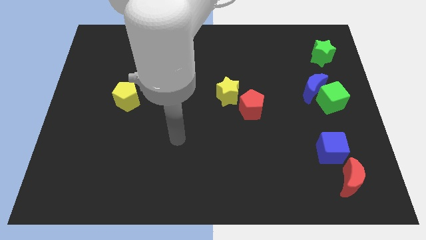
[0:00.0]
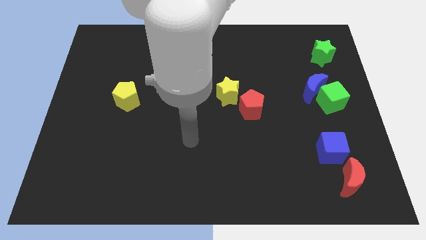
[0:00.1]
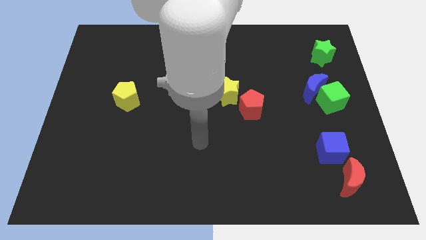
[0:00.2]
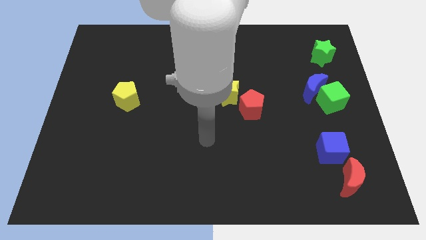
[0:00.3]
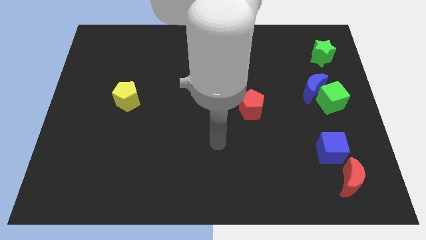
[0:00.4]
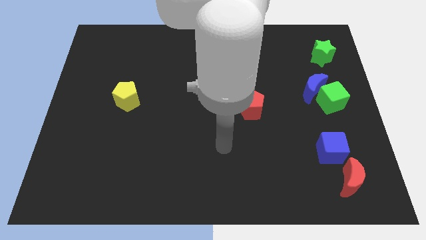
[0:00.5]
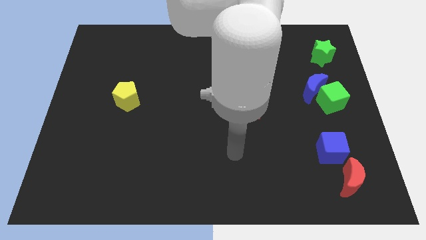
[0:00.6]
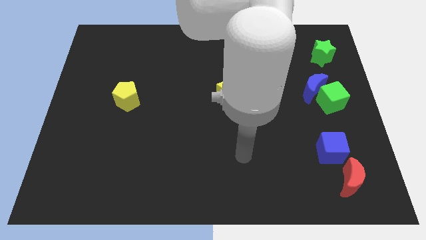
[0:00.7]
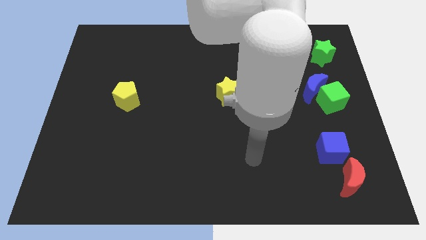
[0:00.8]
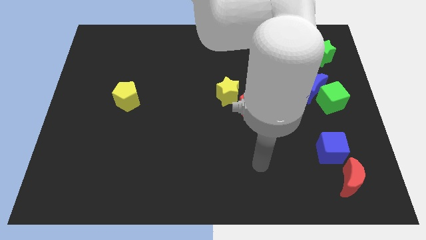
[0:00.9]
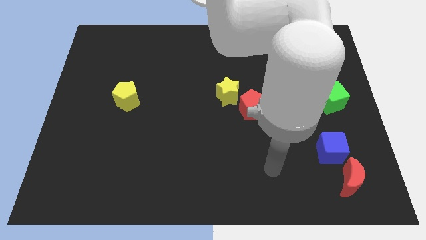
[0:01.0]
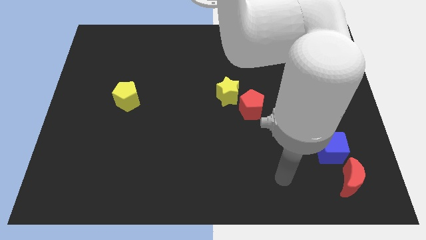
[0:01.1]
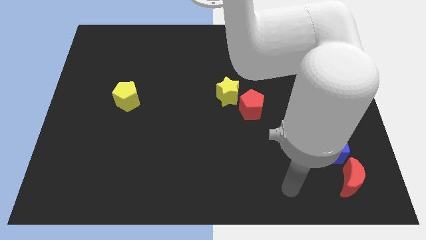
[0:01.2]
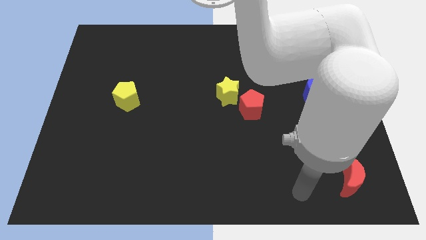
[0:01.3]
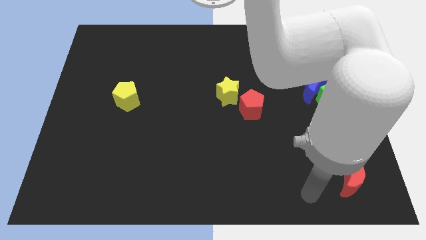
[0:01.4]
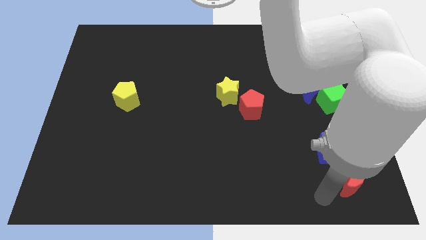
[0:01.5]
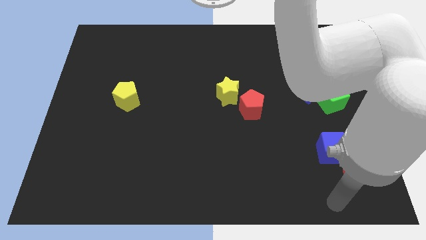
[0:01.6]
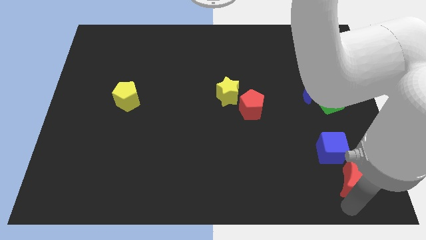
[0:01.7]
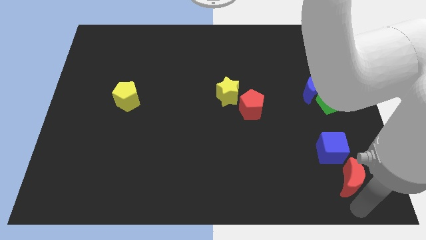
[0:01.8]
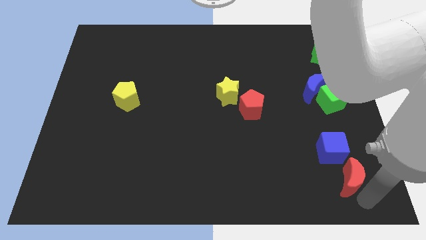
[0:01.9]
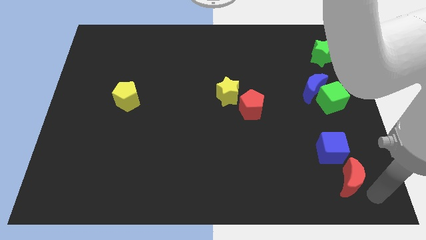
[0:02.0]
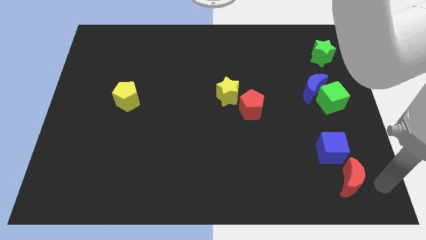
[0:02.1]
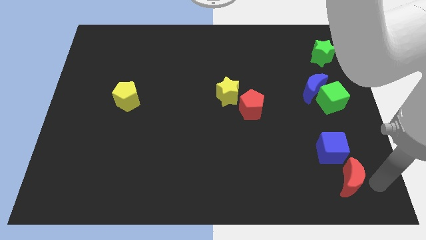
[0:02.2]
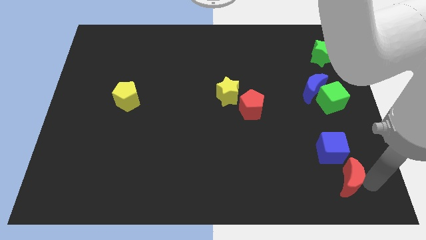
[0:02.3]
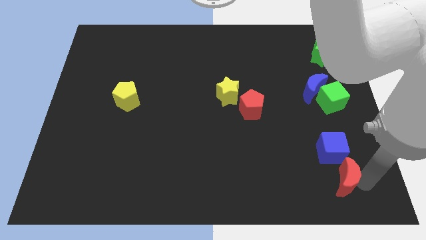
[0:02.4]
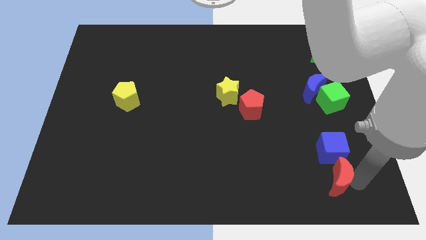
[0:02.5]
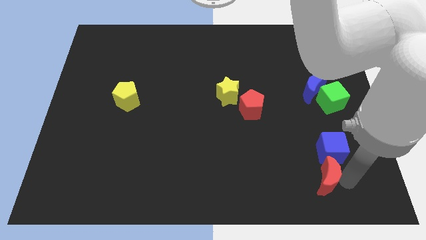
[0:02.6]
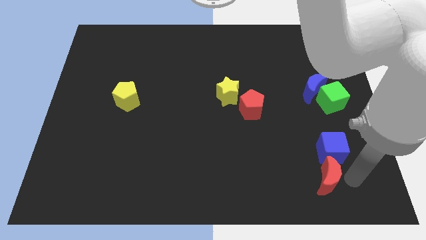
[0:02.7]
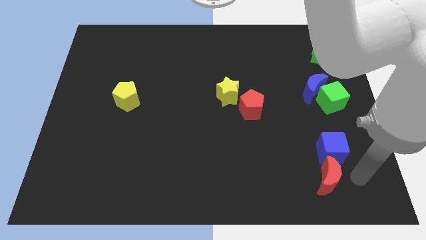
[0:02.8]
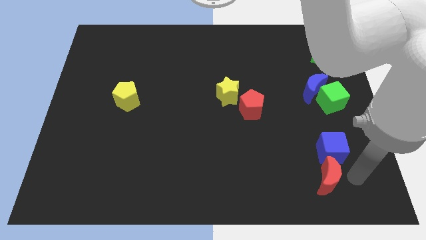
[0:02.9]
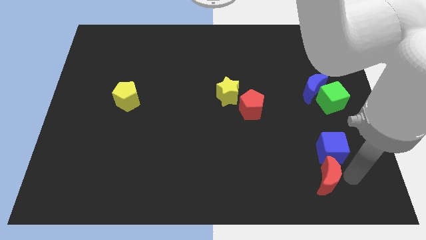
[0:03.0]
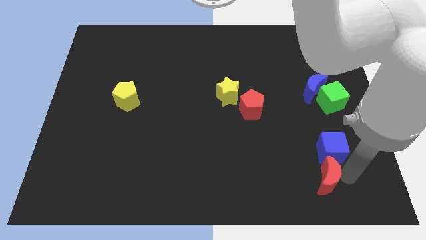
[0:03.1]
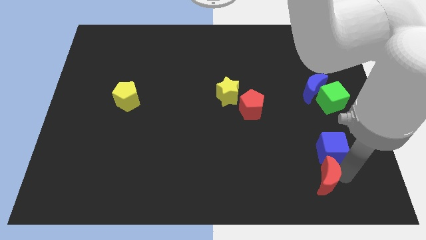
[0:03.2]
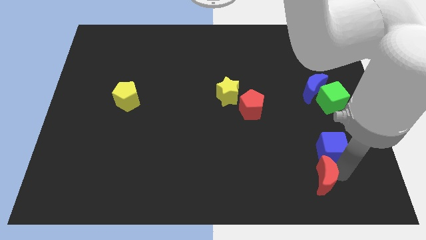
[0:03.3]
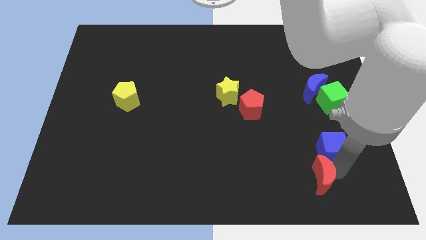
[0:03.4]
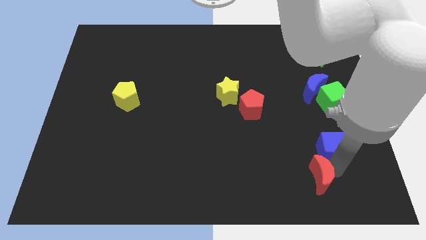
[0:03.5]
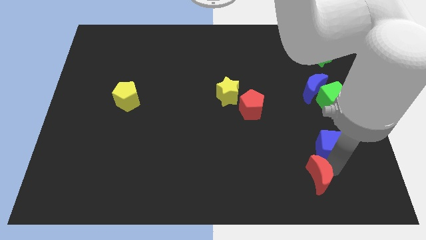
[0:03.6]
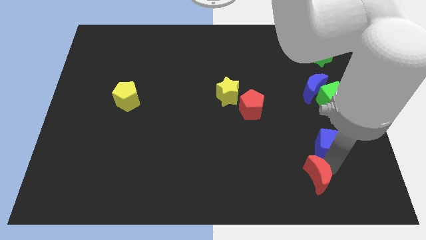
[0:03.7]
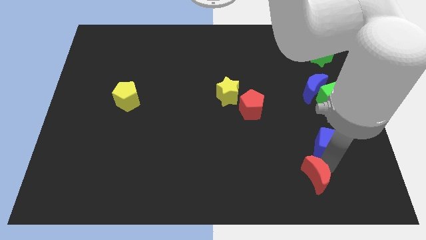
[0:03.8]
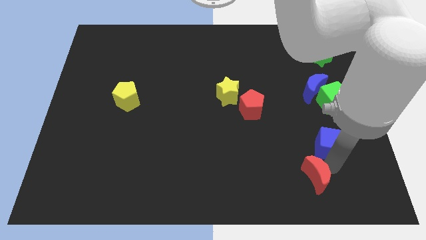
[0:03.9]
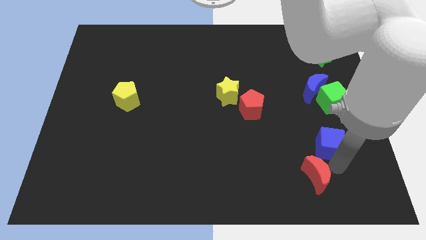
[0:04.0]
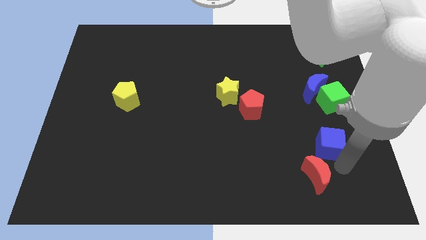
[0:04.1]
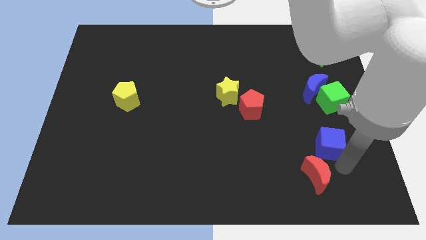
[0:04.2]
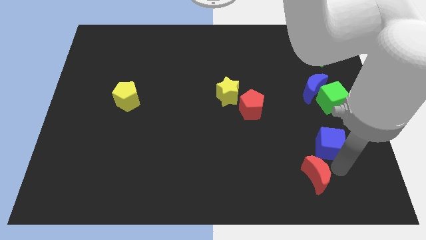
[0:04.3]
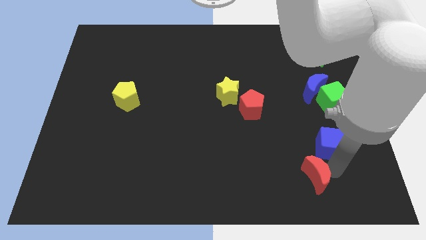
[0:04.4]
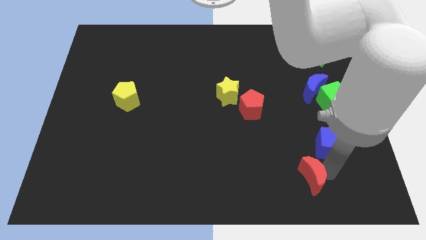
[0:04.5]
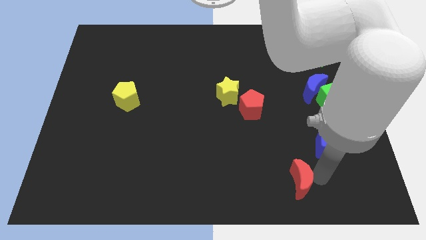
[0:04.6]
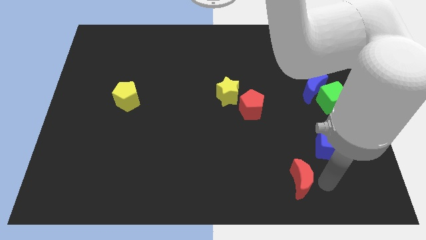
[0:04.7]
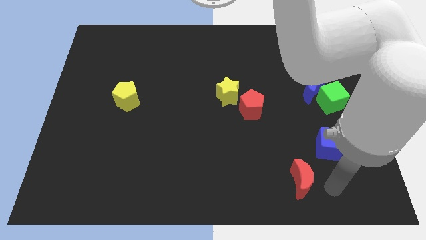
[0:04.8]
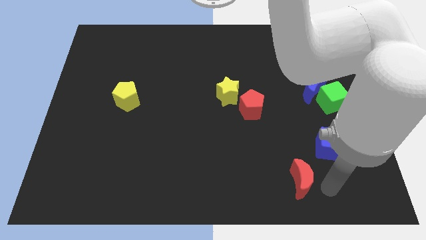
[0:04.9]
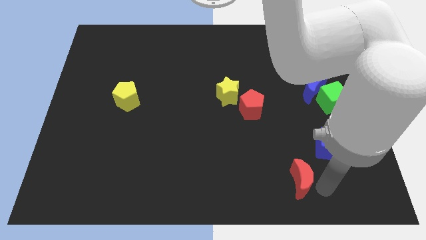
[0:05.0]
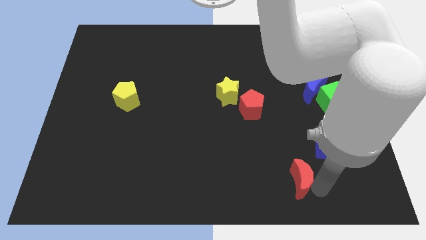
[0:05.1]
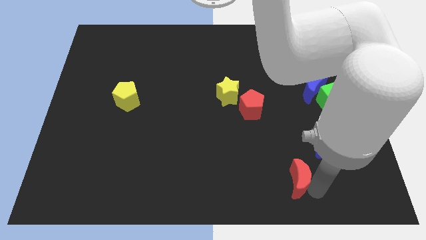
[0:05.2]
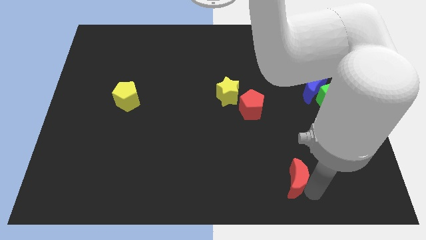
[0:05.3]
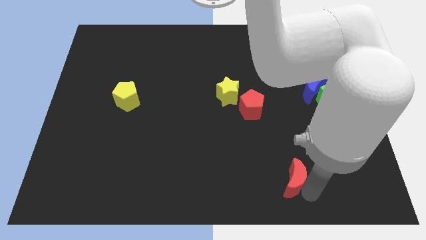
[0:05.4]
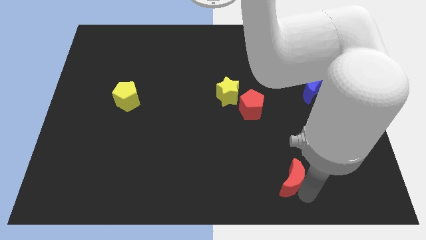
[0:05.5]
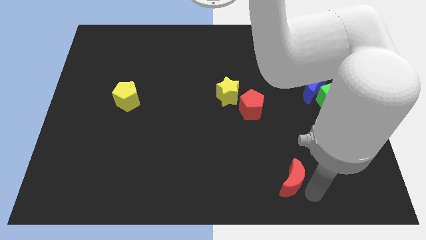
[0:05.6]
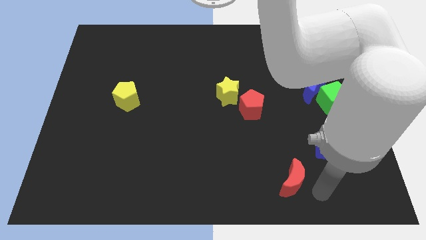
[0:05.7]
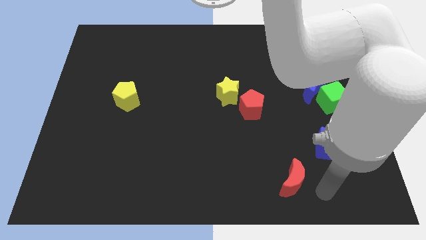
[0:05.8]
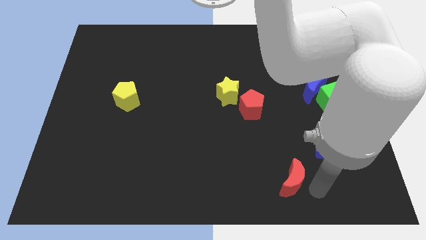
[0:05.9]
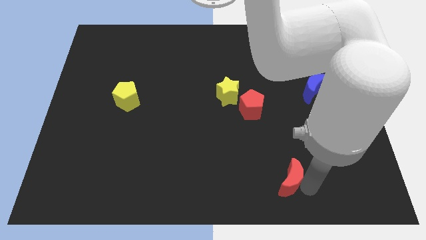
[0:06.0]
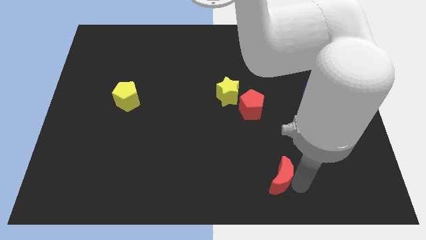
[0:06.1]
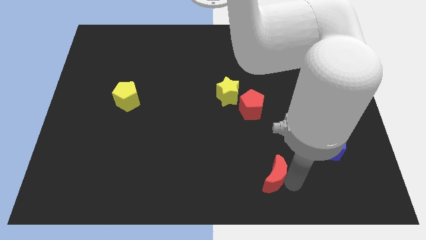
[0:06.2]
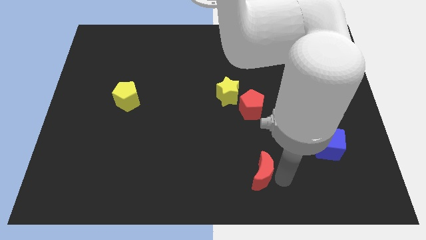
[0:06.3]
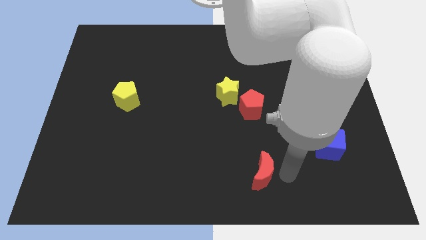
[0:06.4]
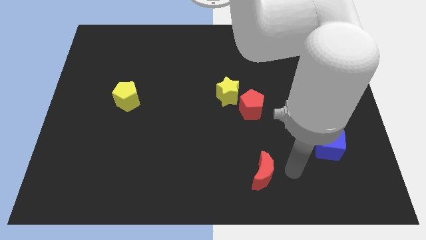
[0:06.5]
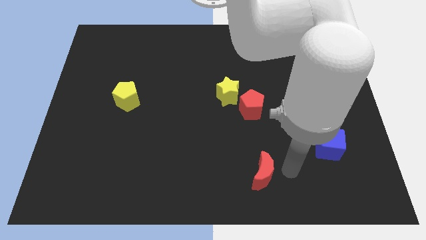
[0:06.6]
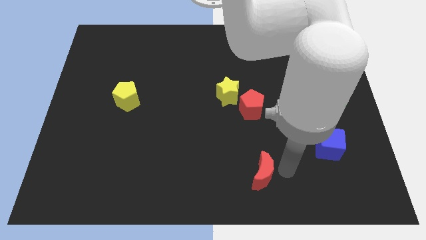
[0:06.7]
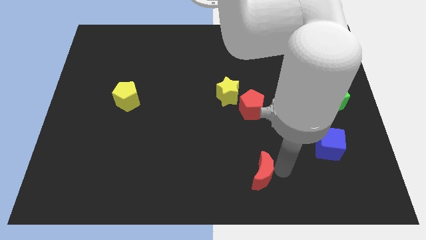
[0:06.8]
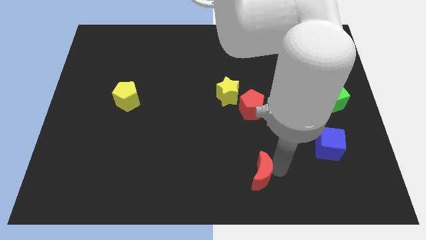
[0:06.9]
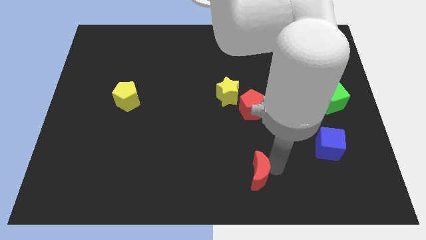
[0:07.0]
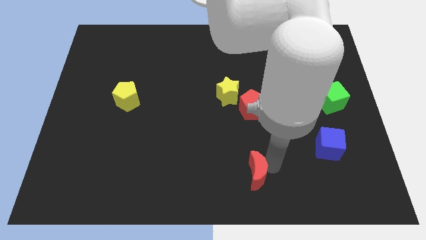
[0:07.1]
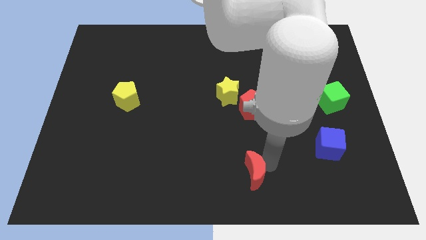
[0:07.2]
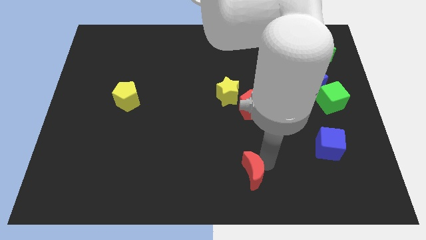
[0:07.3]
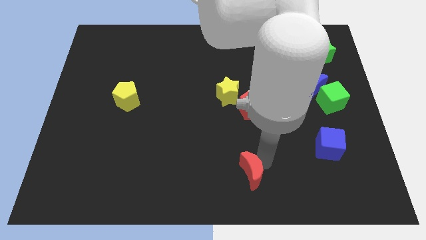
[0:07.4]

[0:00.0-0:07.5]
push the red moon to the left

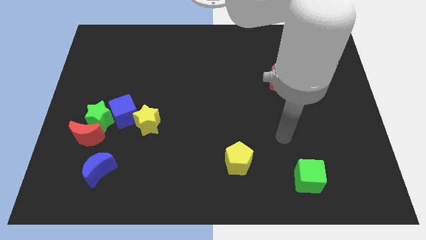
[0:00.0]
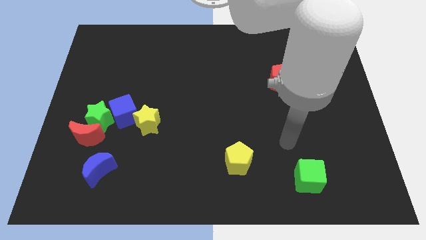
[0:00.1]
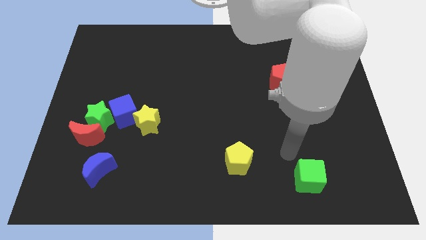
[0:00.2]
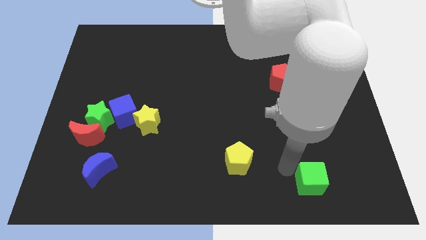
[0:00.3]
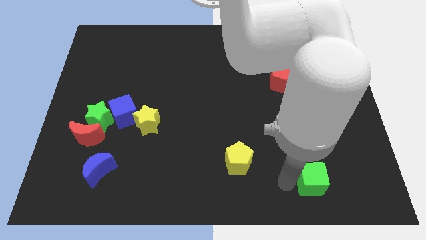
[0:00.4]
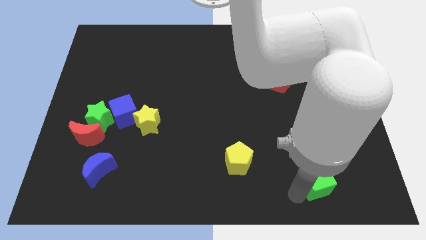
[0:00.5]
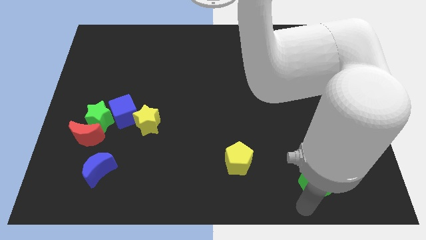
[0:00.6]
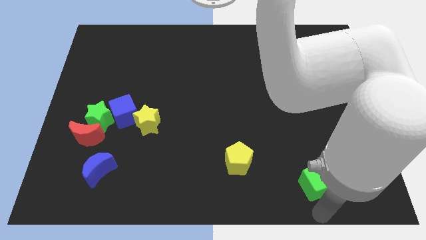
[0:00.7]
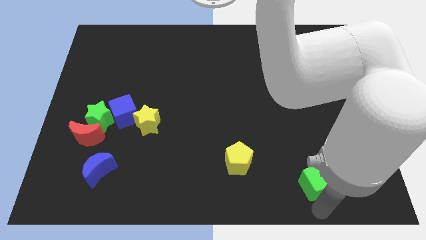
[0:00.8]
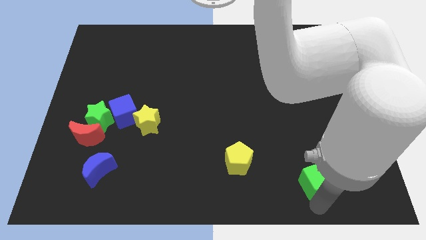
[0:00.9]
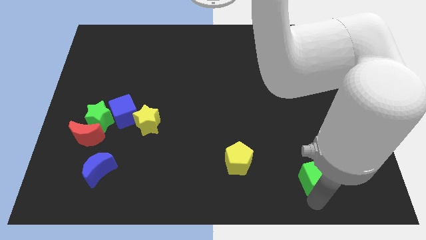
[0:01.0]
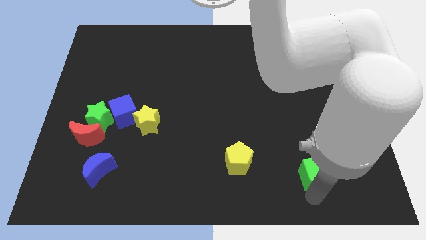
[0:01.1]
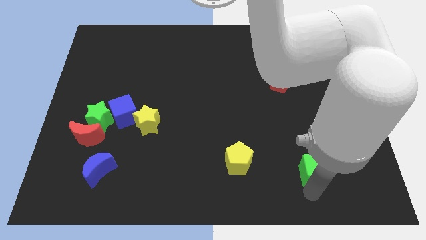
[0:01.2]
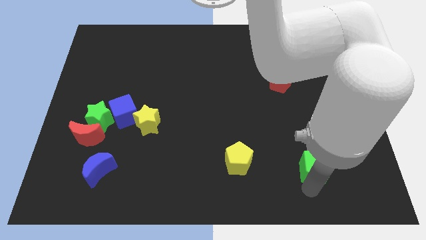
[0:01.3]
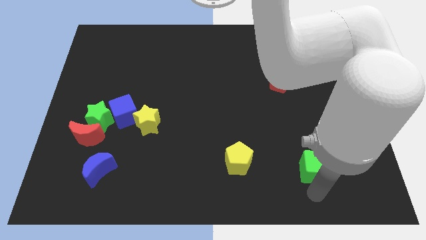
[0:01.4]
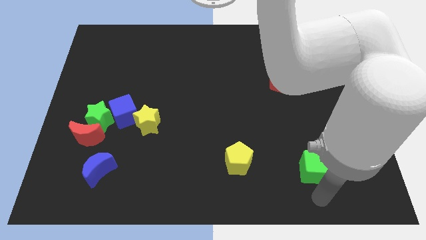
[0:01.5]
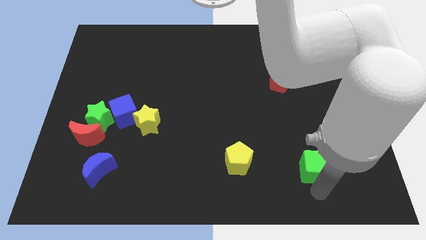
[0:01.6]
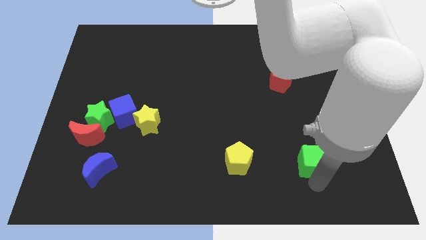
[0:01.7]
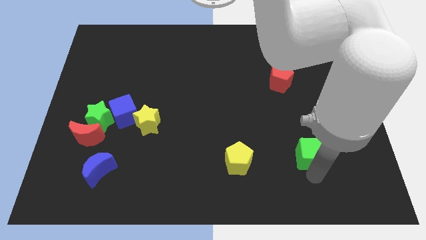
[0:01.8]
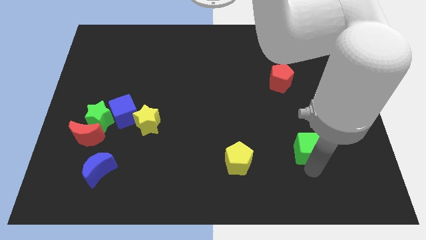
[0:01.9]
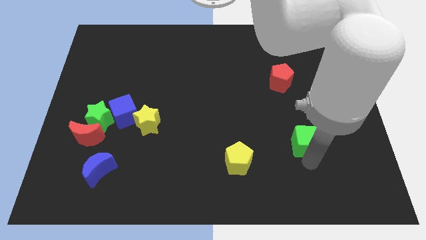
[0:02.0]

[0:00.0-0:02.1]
slide the green cube upwards somewhat
